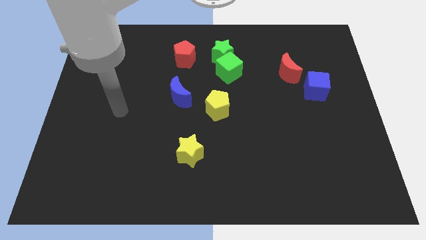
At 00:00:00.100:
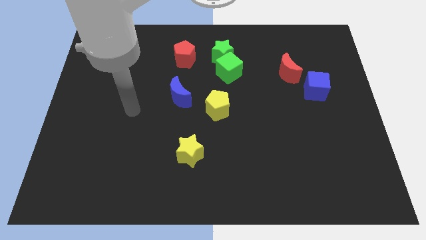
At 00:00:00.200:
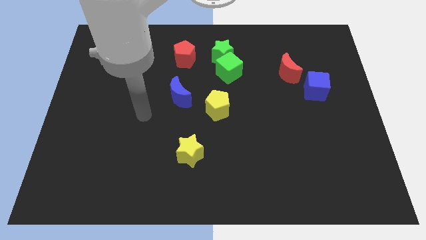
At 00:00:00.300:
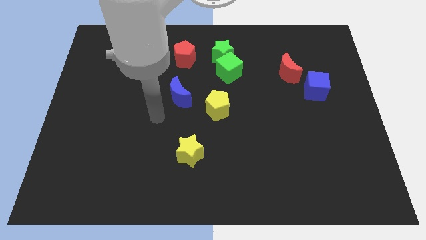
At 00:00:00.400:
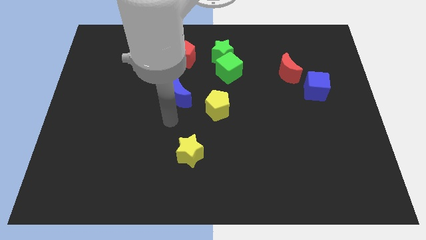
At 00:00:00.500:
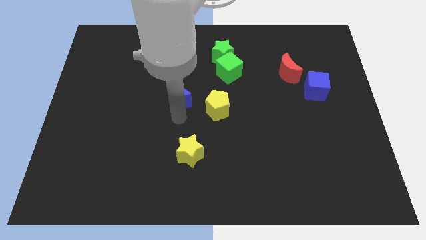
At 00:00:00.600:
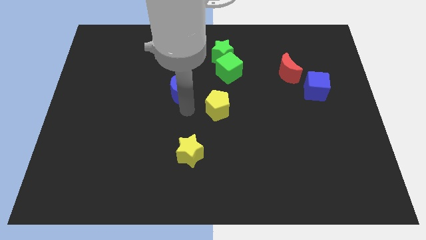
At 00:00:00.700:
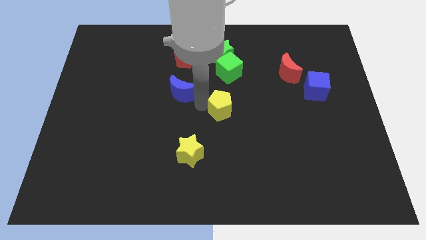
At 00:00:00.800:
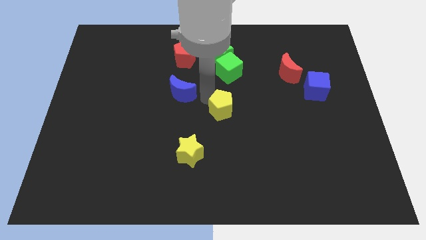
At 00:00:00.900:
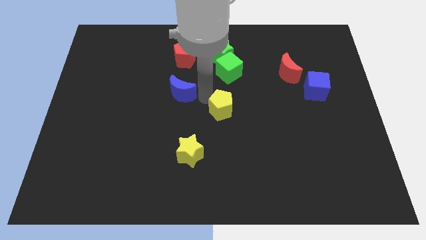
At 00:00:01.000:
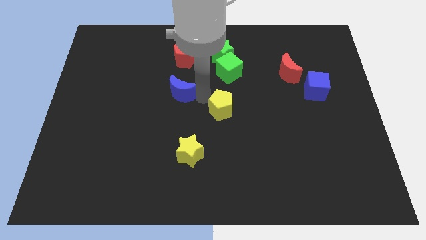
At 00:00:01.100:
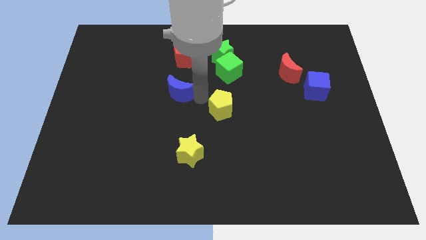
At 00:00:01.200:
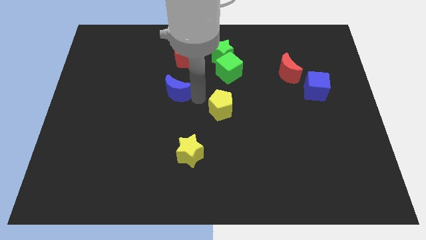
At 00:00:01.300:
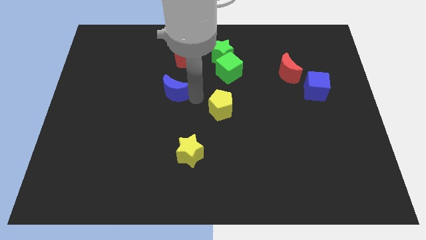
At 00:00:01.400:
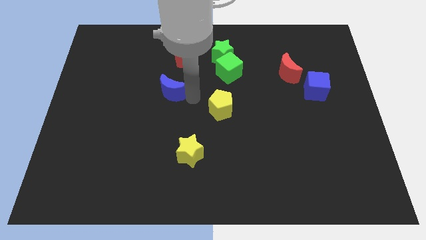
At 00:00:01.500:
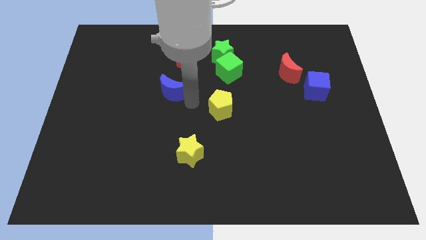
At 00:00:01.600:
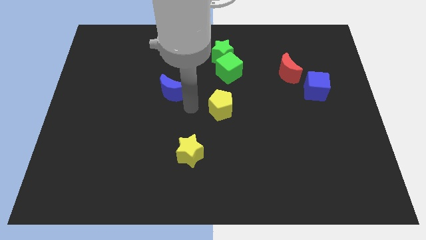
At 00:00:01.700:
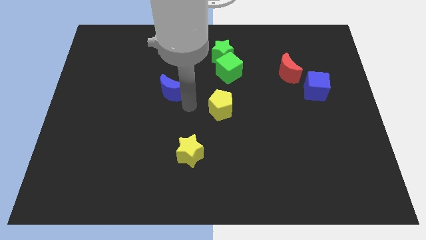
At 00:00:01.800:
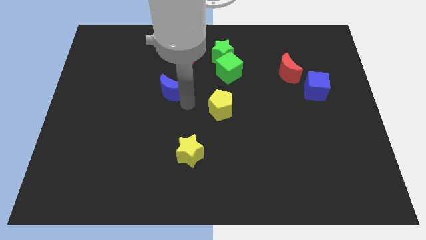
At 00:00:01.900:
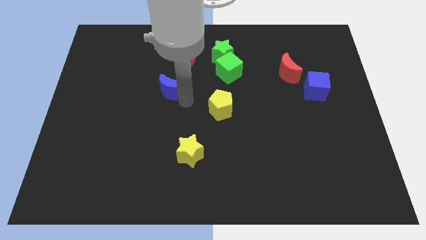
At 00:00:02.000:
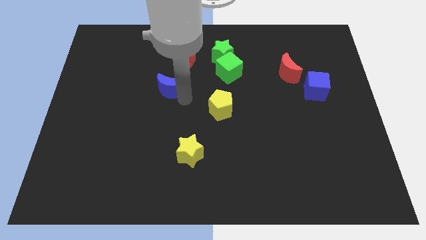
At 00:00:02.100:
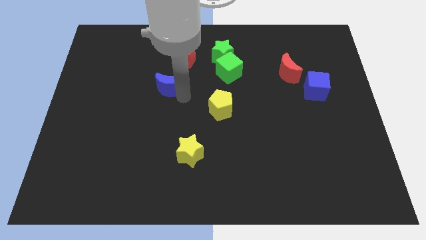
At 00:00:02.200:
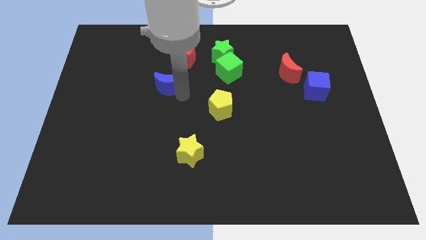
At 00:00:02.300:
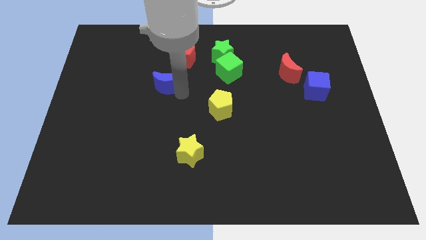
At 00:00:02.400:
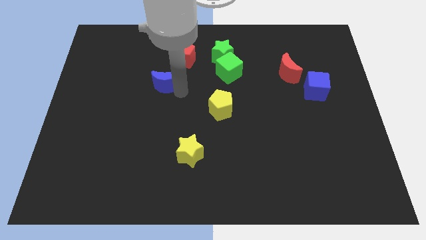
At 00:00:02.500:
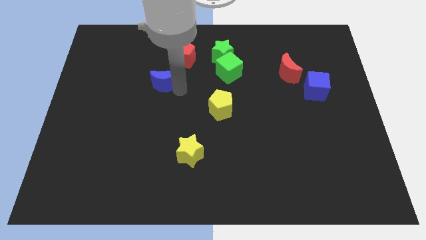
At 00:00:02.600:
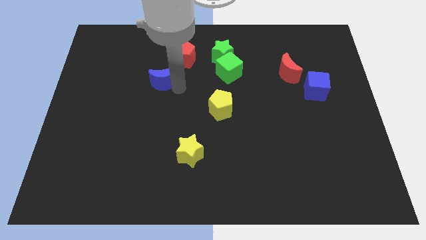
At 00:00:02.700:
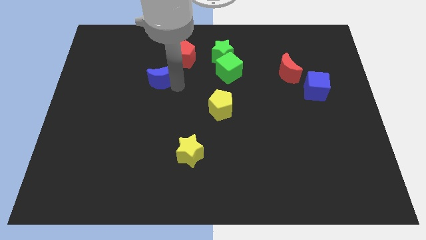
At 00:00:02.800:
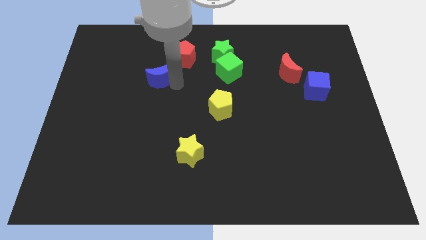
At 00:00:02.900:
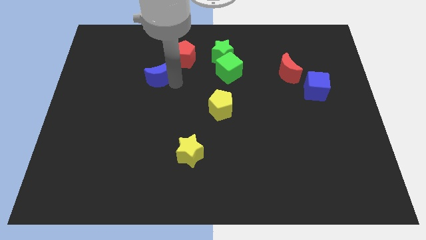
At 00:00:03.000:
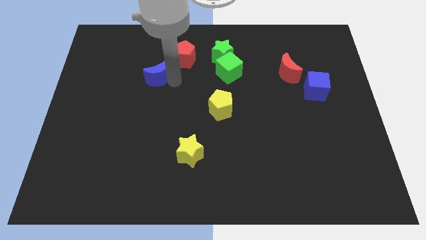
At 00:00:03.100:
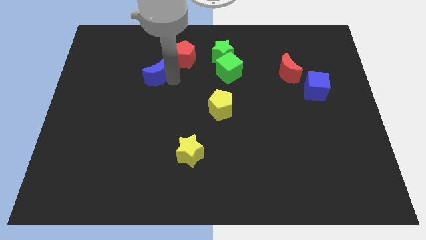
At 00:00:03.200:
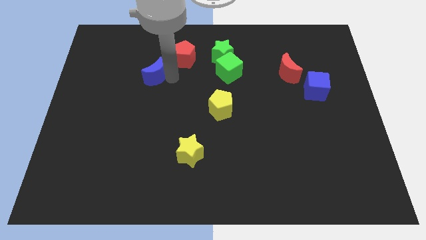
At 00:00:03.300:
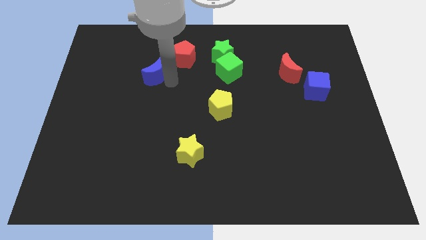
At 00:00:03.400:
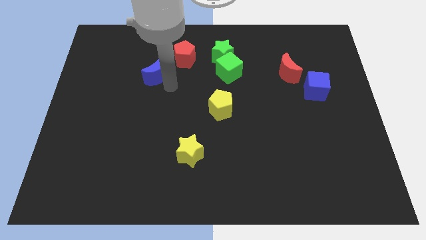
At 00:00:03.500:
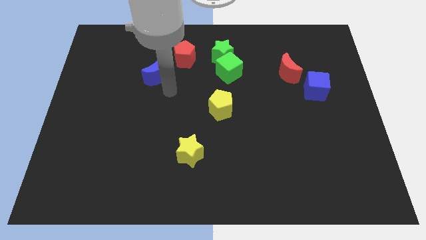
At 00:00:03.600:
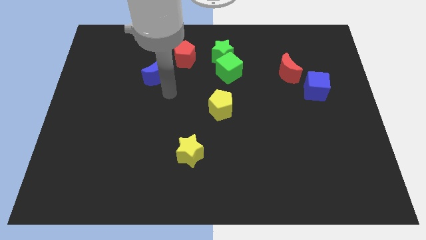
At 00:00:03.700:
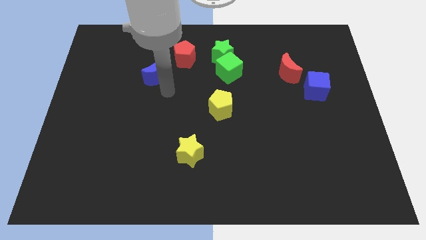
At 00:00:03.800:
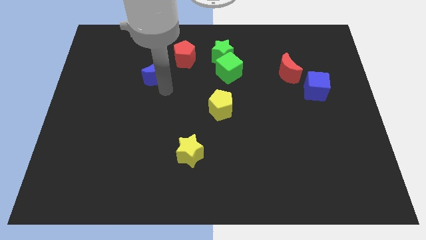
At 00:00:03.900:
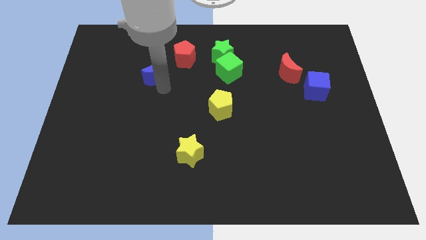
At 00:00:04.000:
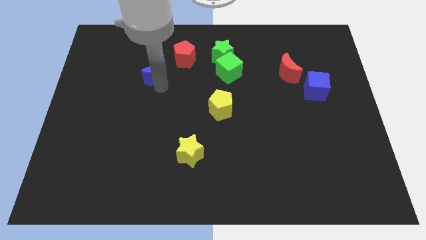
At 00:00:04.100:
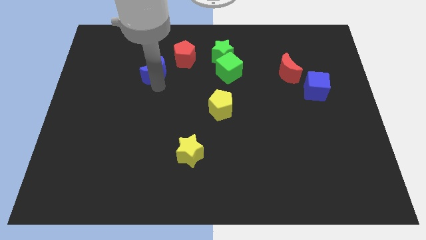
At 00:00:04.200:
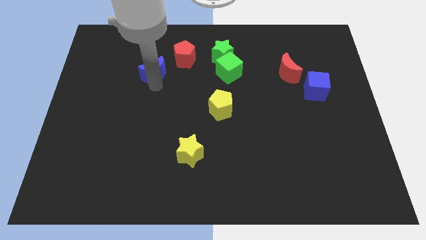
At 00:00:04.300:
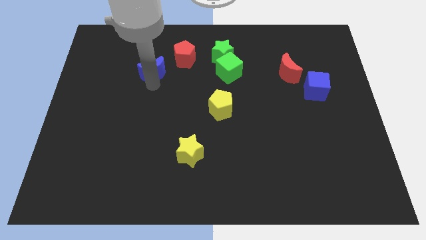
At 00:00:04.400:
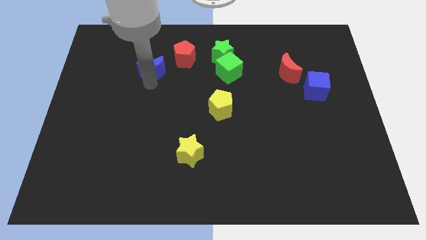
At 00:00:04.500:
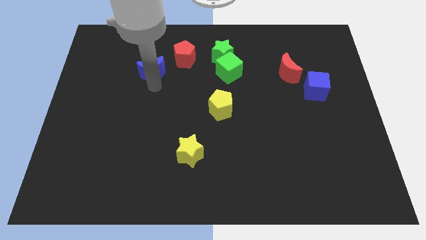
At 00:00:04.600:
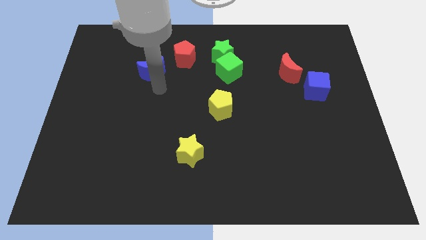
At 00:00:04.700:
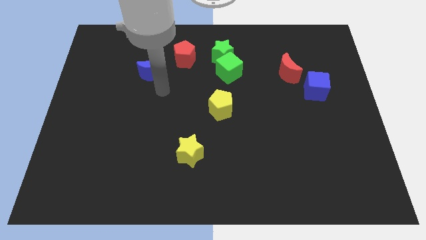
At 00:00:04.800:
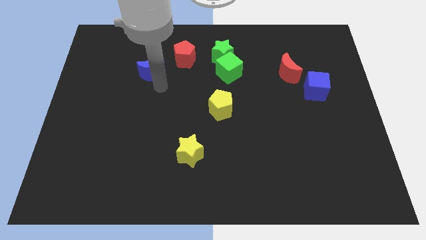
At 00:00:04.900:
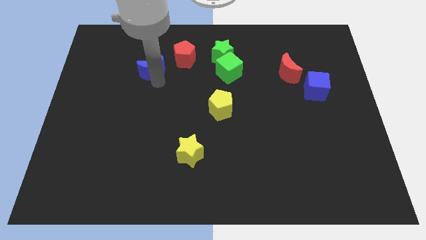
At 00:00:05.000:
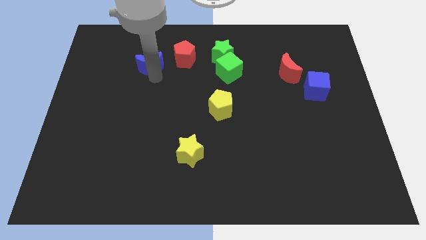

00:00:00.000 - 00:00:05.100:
put the blue moon just left of the red pentagon
